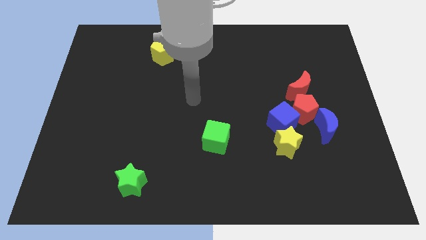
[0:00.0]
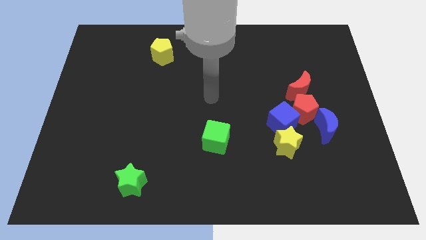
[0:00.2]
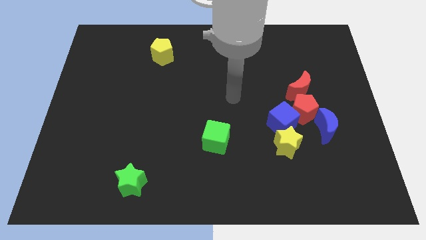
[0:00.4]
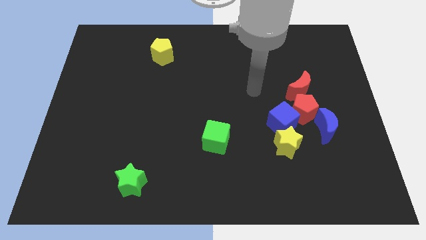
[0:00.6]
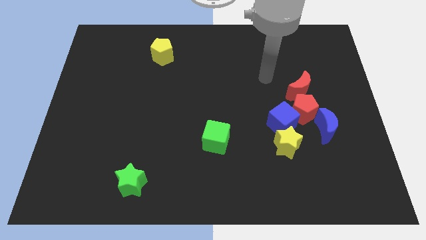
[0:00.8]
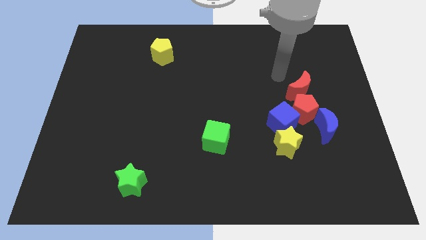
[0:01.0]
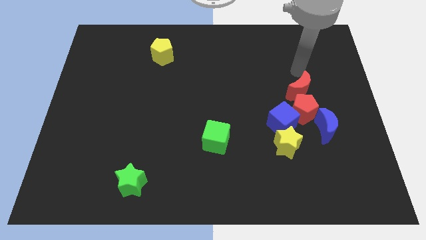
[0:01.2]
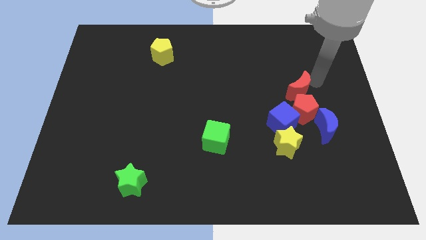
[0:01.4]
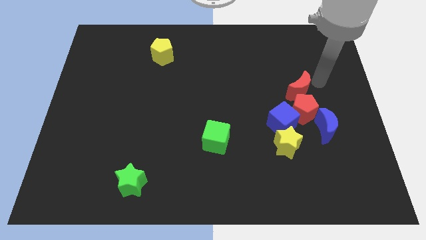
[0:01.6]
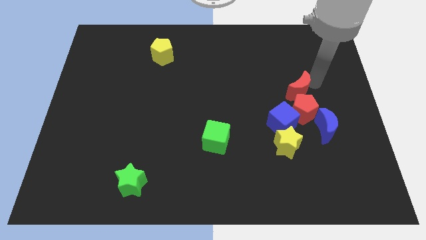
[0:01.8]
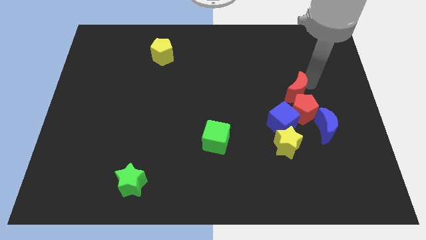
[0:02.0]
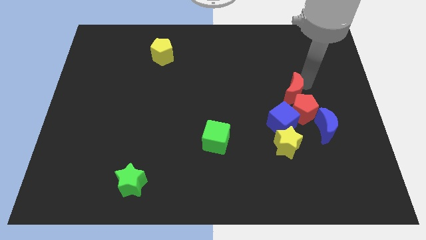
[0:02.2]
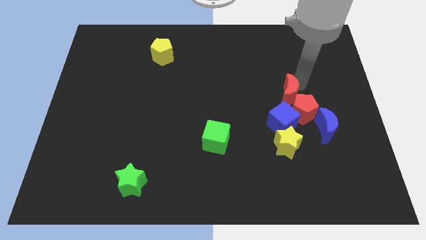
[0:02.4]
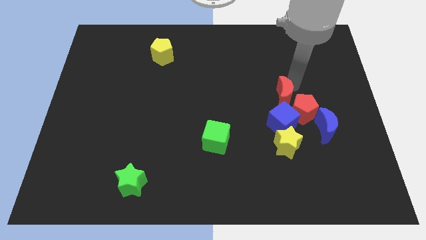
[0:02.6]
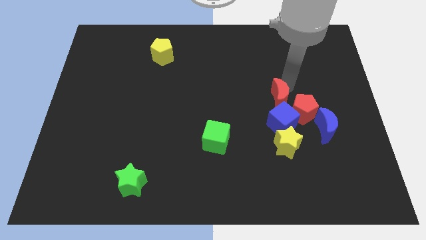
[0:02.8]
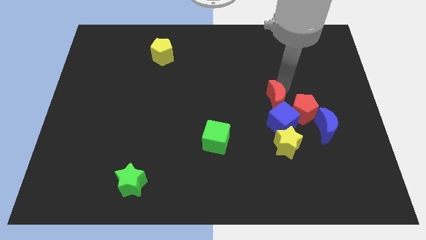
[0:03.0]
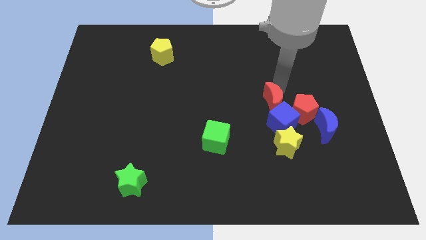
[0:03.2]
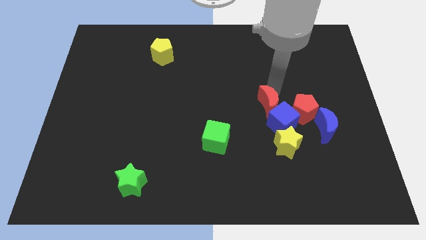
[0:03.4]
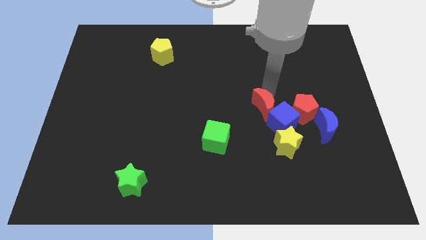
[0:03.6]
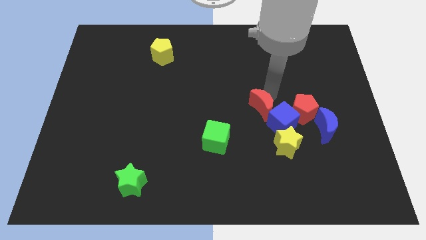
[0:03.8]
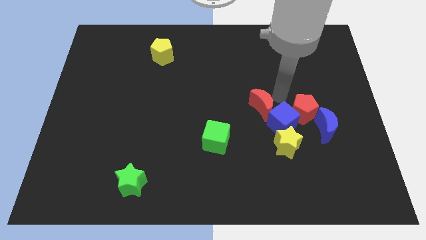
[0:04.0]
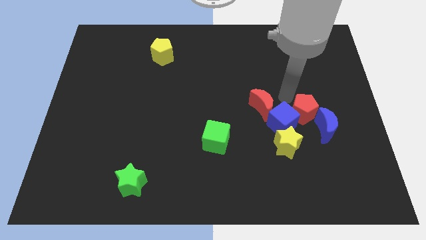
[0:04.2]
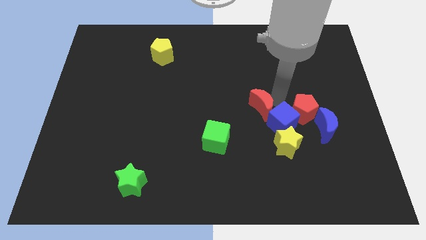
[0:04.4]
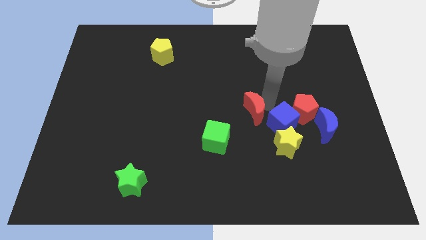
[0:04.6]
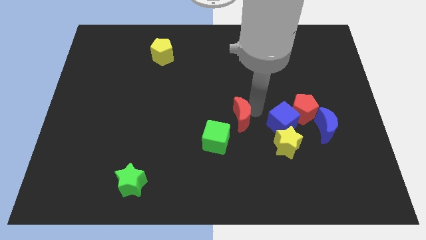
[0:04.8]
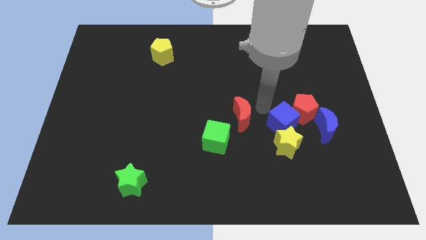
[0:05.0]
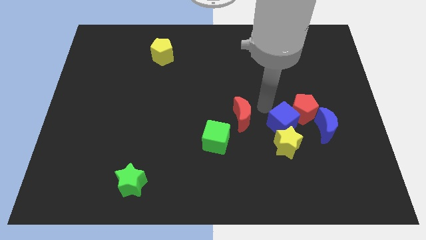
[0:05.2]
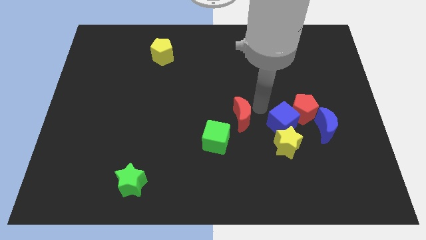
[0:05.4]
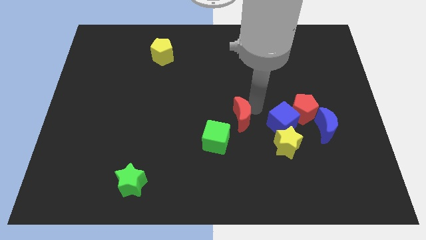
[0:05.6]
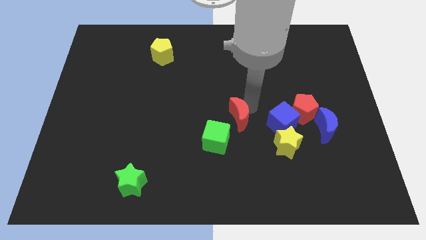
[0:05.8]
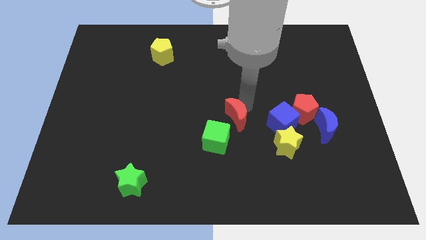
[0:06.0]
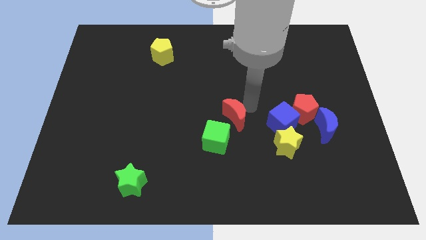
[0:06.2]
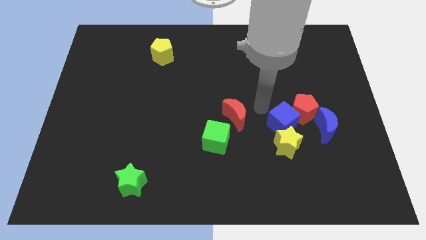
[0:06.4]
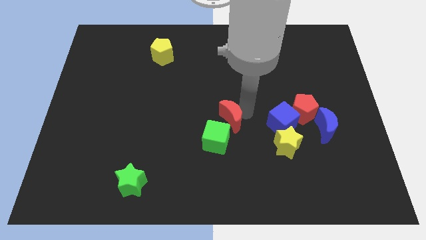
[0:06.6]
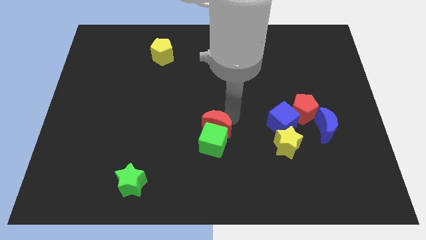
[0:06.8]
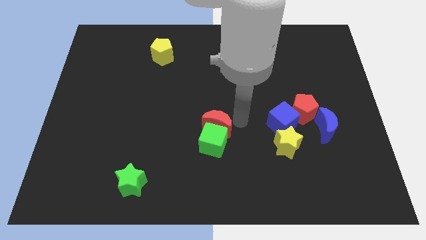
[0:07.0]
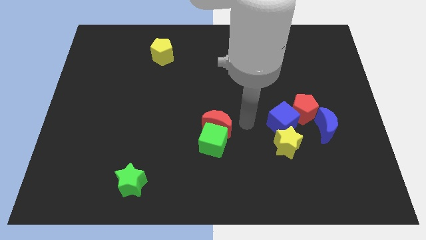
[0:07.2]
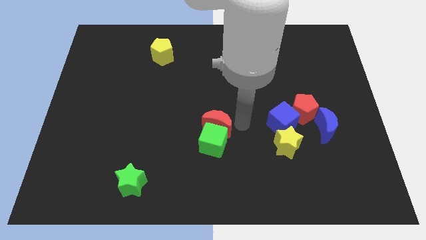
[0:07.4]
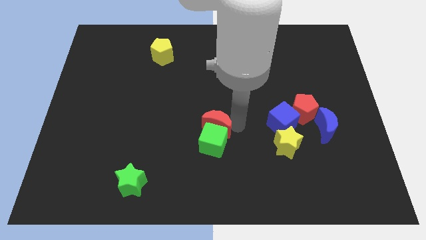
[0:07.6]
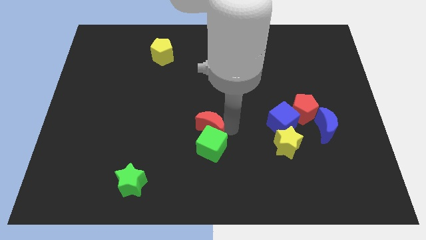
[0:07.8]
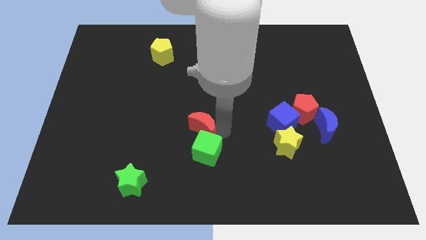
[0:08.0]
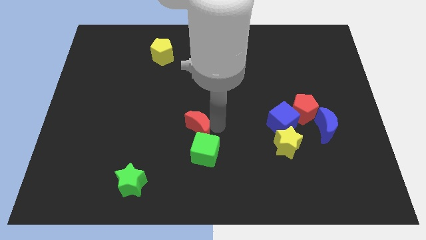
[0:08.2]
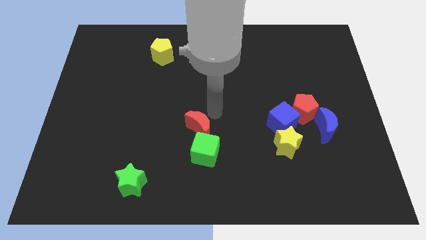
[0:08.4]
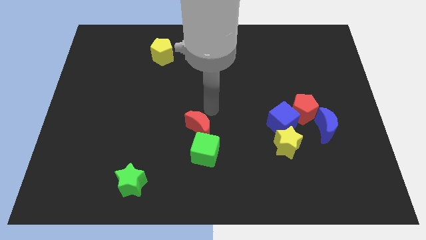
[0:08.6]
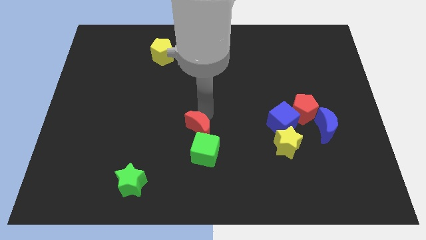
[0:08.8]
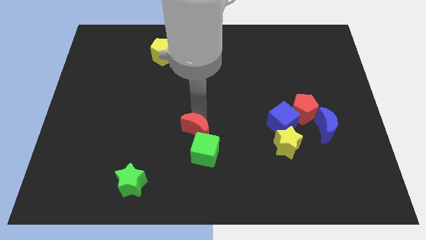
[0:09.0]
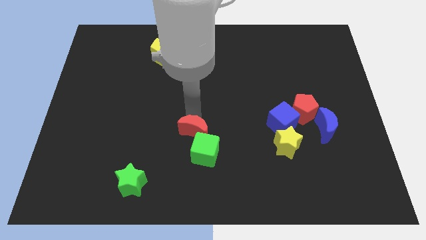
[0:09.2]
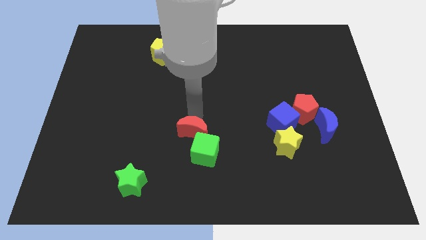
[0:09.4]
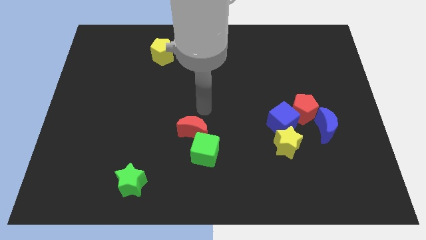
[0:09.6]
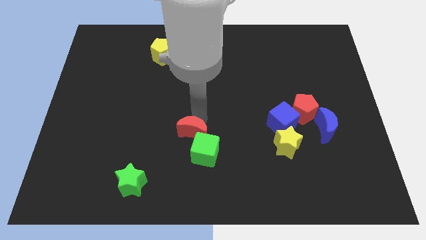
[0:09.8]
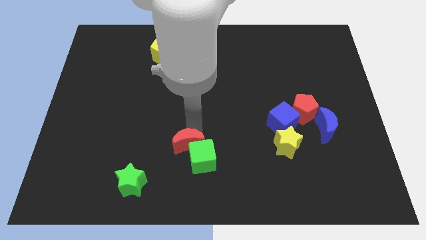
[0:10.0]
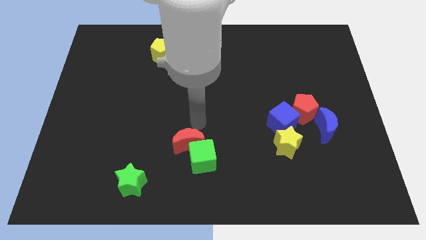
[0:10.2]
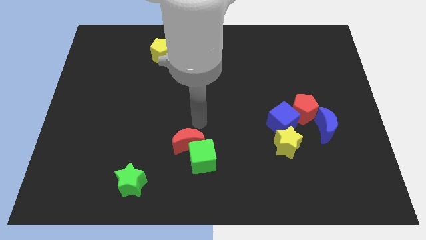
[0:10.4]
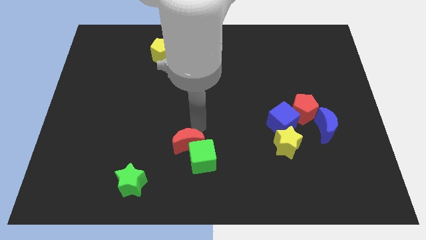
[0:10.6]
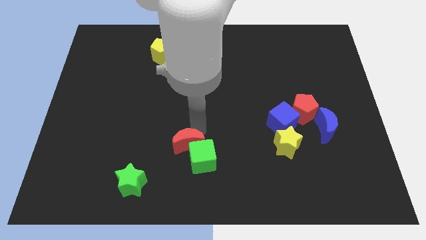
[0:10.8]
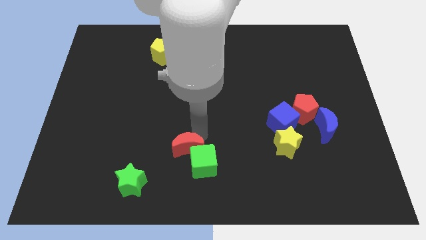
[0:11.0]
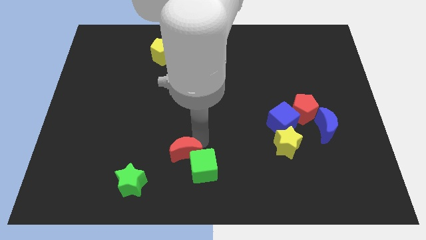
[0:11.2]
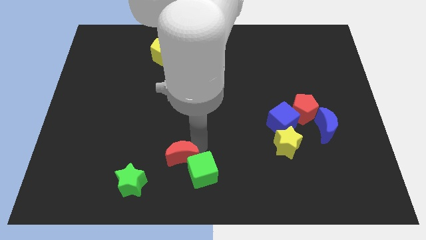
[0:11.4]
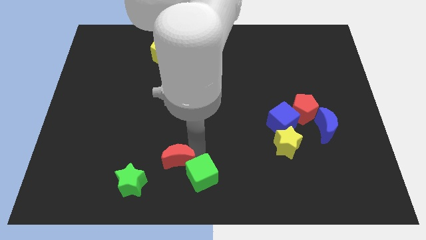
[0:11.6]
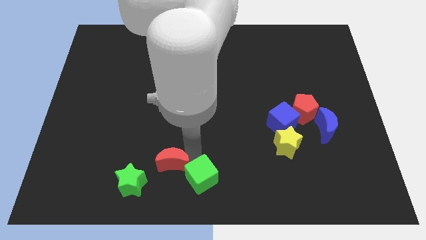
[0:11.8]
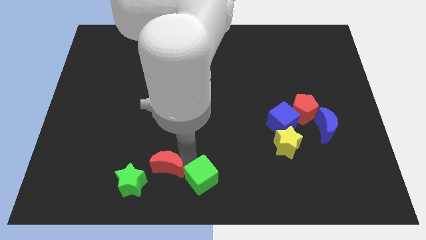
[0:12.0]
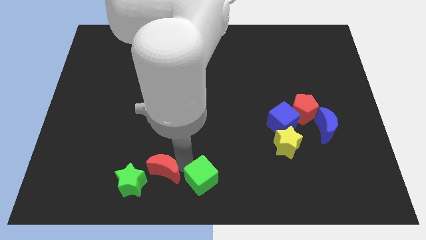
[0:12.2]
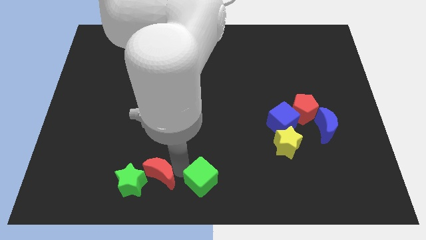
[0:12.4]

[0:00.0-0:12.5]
put the red moon close to the green star

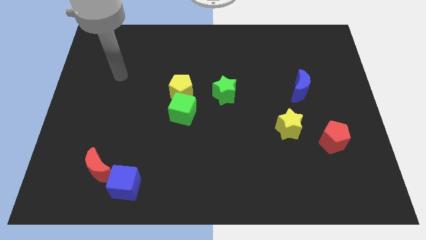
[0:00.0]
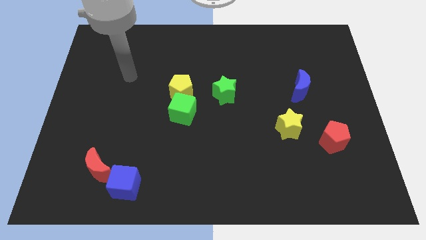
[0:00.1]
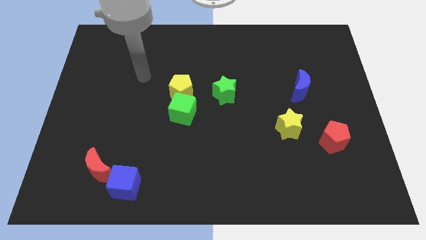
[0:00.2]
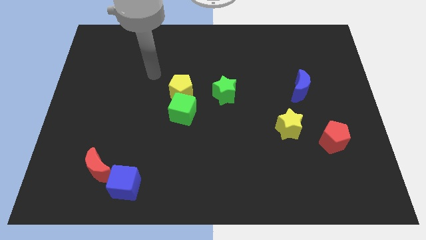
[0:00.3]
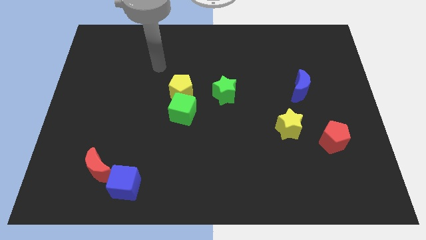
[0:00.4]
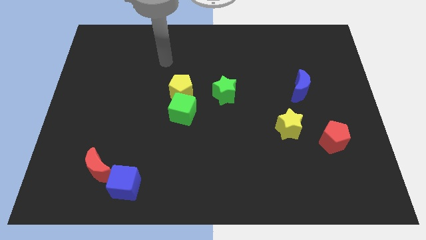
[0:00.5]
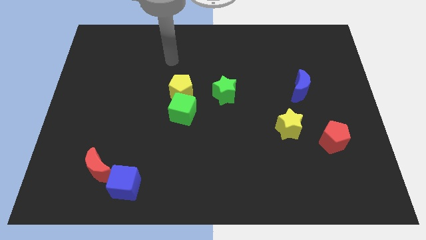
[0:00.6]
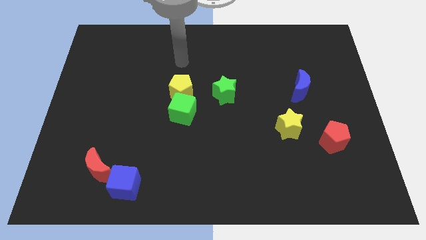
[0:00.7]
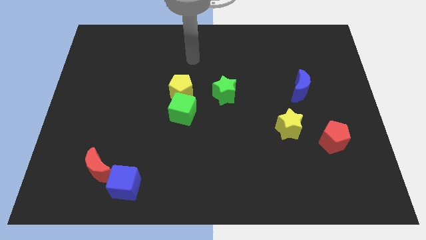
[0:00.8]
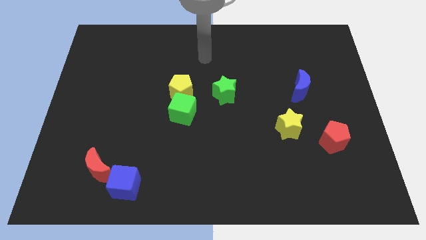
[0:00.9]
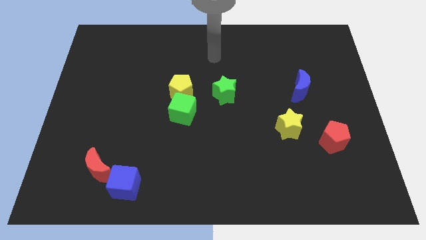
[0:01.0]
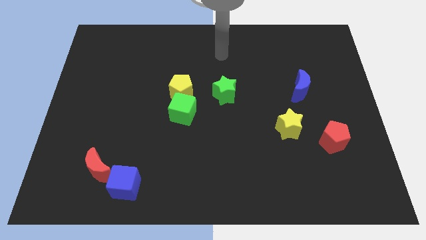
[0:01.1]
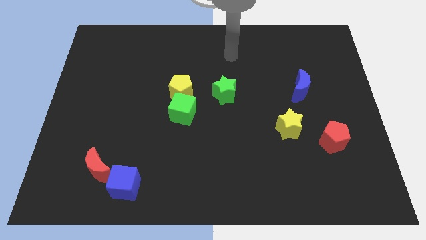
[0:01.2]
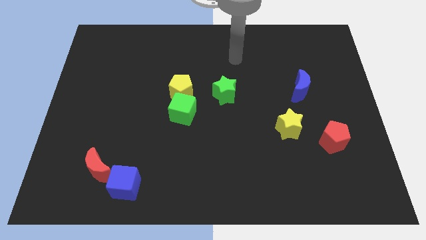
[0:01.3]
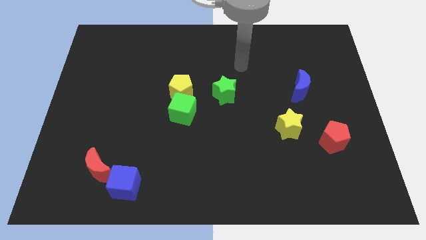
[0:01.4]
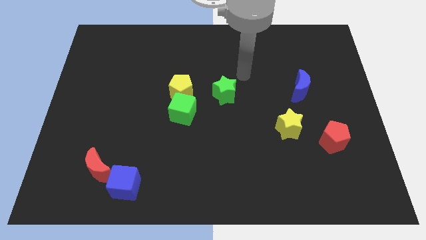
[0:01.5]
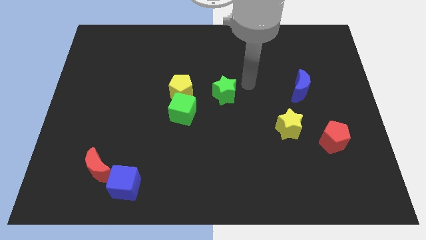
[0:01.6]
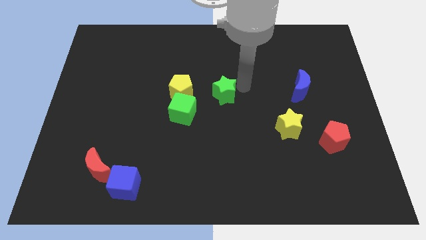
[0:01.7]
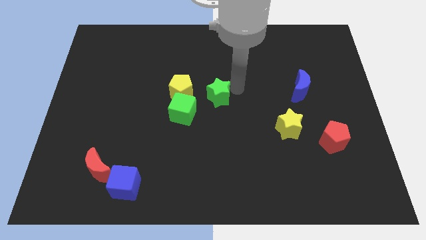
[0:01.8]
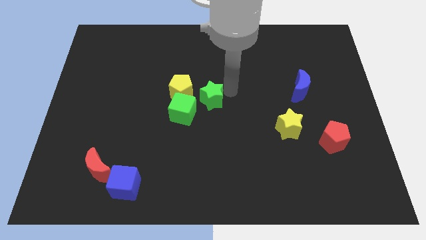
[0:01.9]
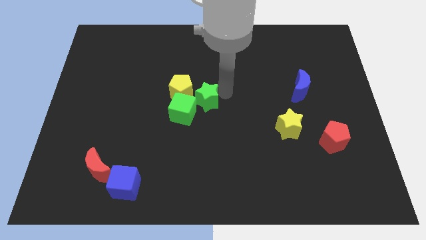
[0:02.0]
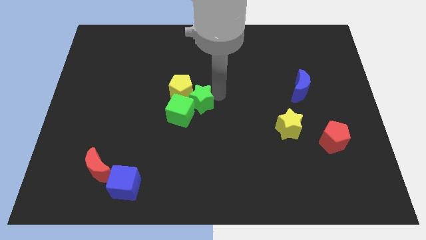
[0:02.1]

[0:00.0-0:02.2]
push the green star towards the green cube
